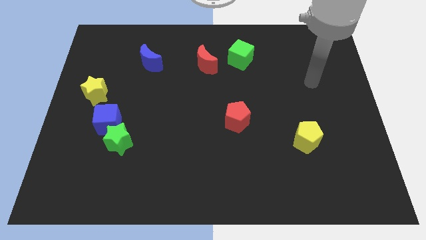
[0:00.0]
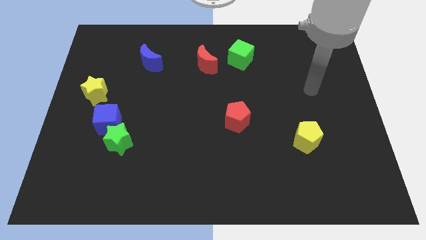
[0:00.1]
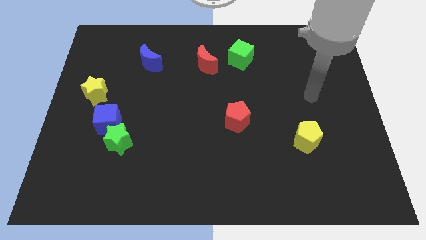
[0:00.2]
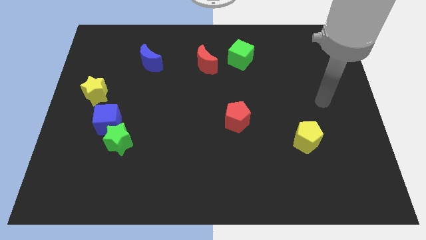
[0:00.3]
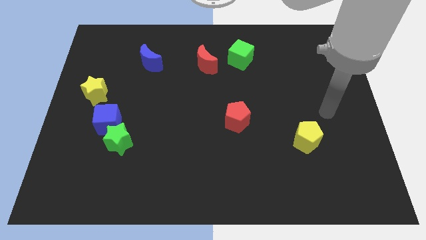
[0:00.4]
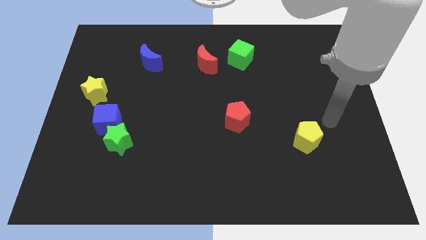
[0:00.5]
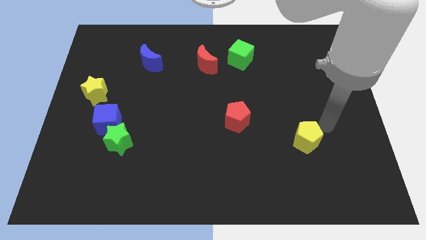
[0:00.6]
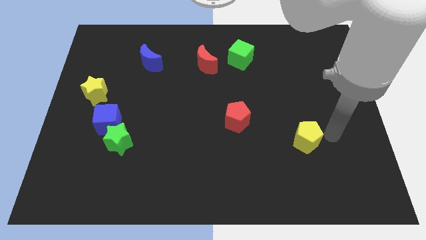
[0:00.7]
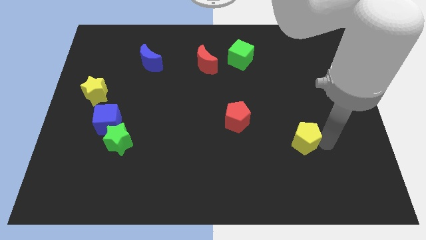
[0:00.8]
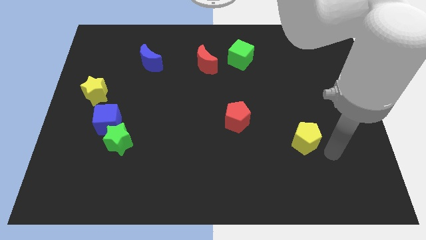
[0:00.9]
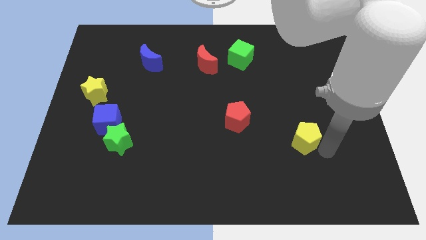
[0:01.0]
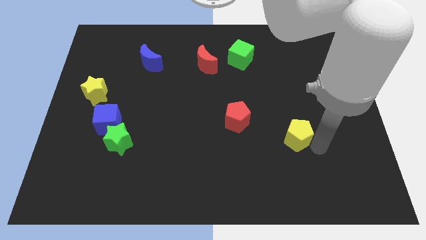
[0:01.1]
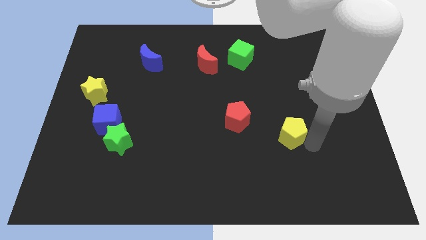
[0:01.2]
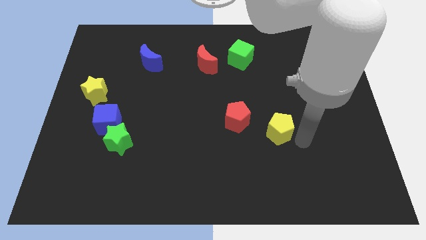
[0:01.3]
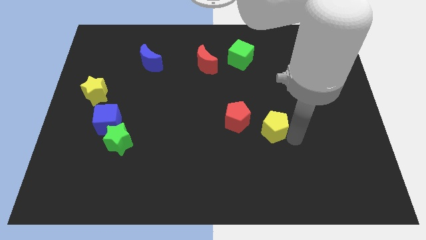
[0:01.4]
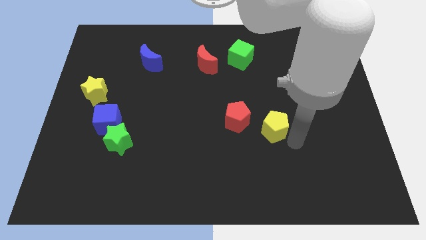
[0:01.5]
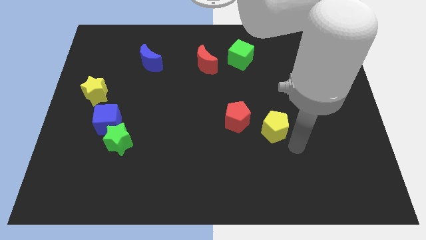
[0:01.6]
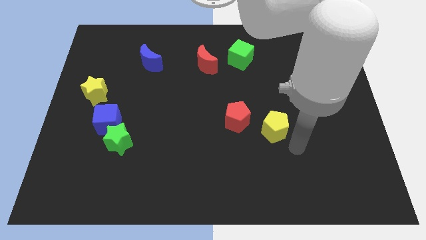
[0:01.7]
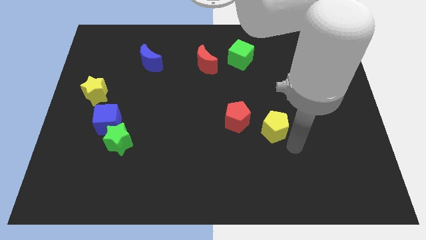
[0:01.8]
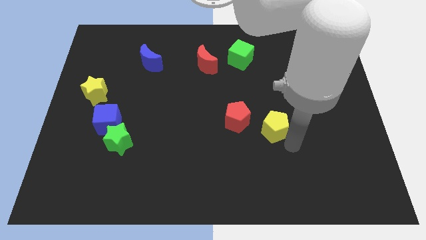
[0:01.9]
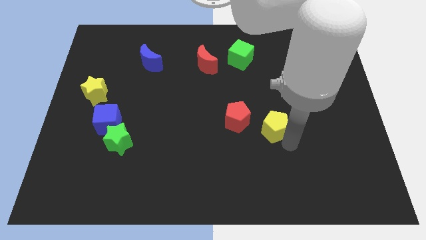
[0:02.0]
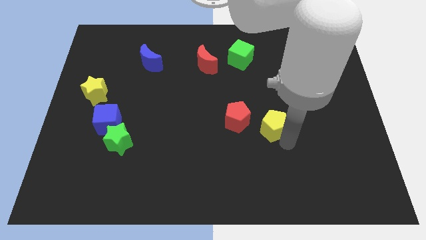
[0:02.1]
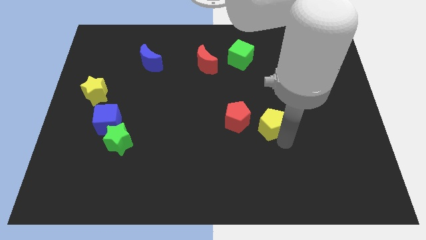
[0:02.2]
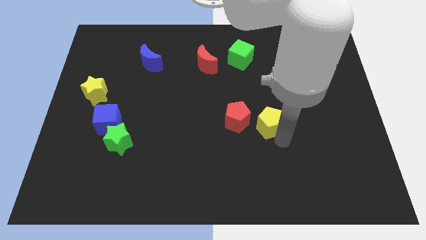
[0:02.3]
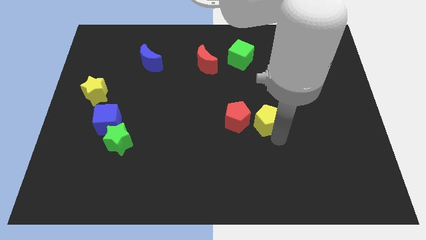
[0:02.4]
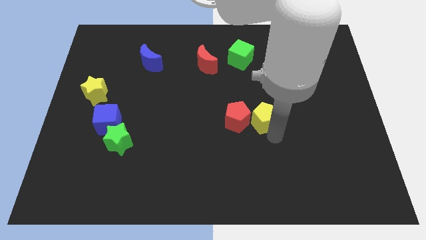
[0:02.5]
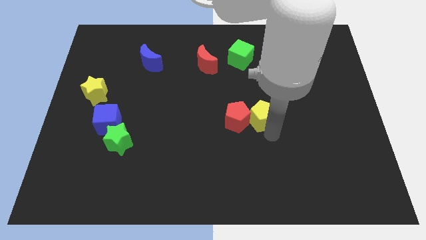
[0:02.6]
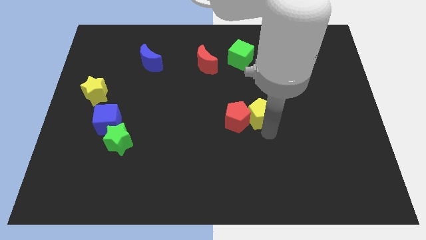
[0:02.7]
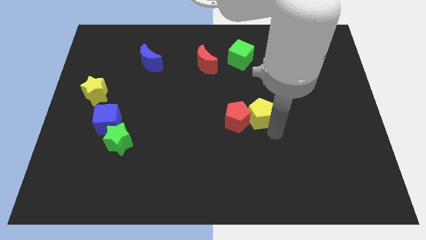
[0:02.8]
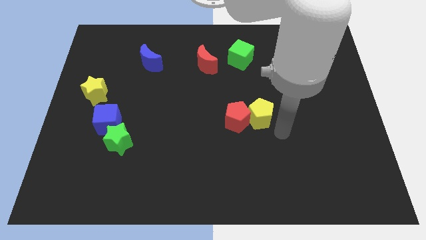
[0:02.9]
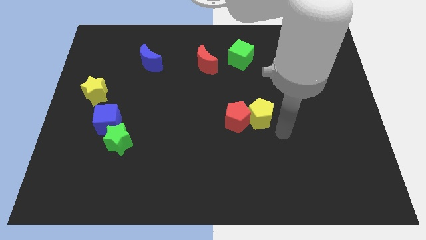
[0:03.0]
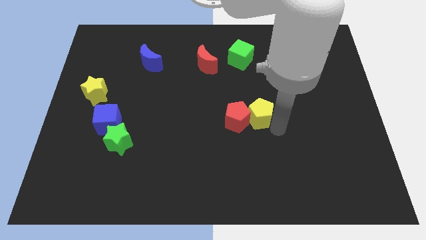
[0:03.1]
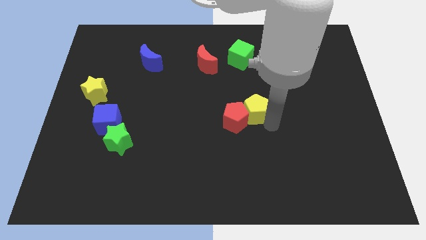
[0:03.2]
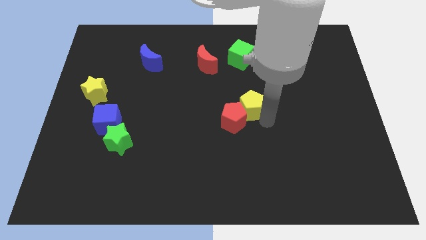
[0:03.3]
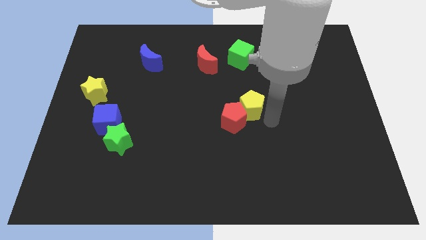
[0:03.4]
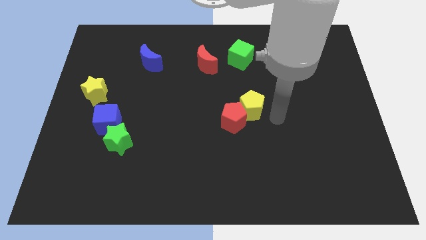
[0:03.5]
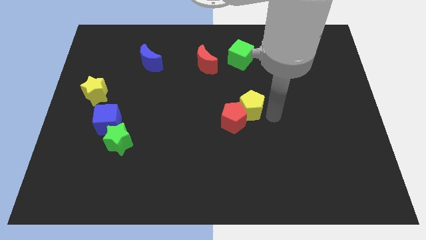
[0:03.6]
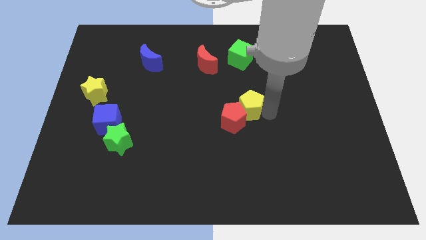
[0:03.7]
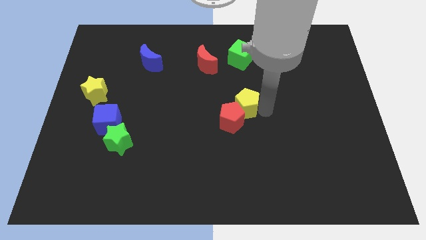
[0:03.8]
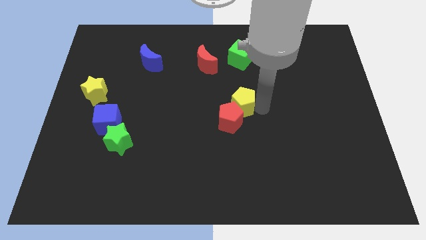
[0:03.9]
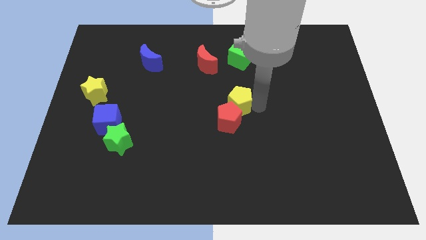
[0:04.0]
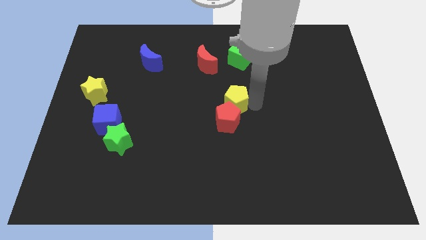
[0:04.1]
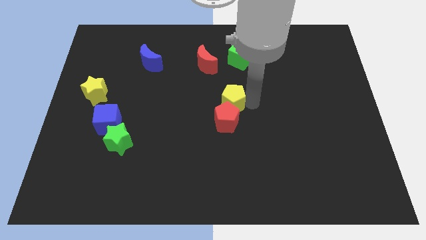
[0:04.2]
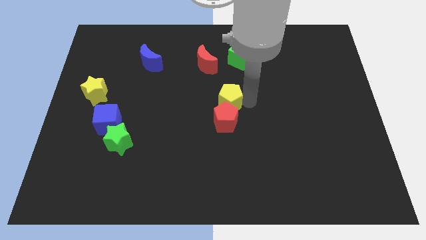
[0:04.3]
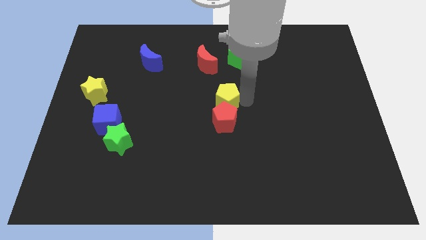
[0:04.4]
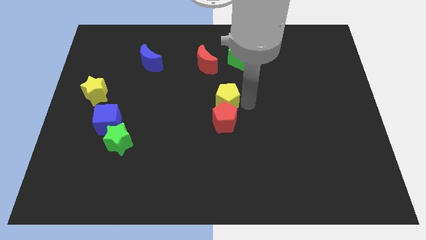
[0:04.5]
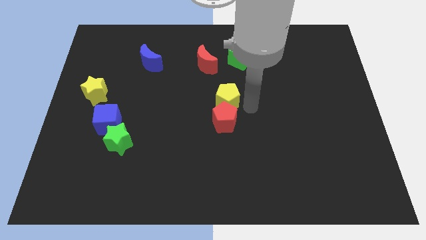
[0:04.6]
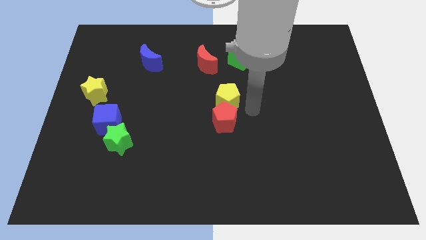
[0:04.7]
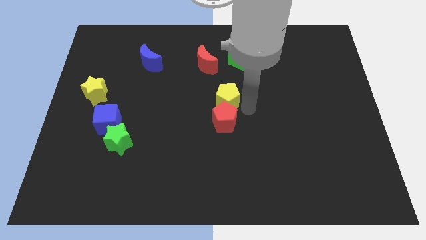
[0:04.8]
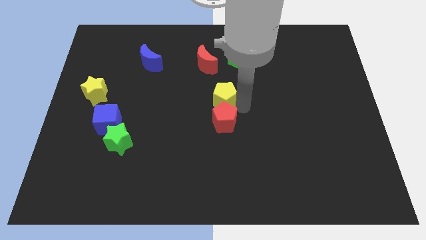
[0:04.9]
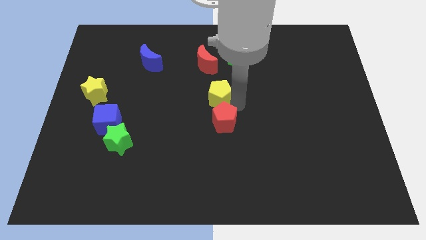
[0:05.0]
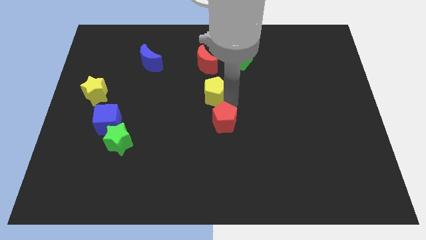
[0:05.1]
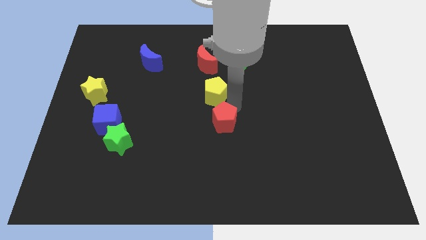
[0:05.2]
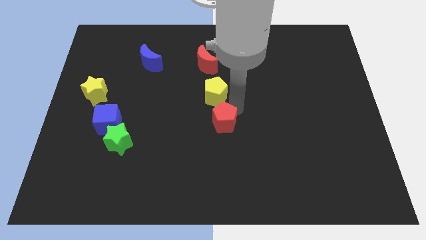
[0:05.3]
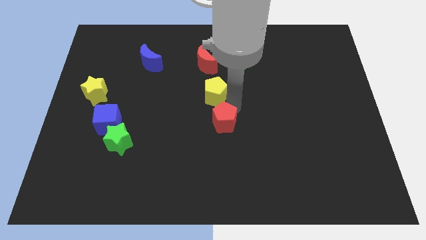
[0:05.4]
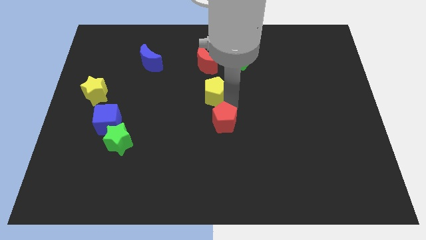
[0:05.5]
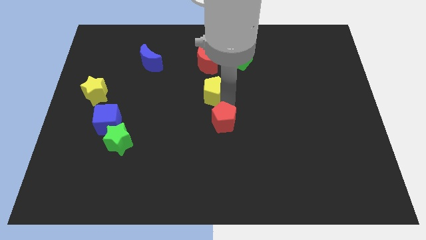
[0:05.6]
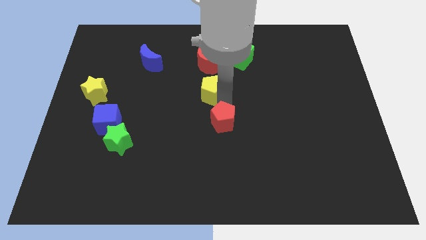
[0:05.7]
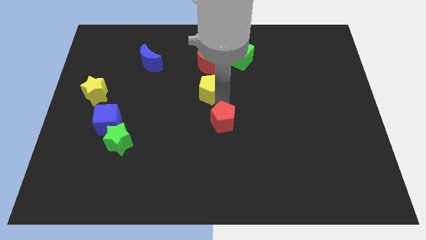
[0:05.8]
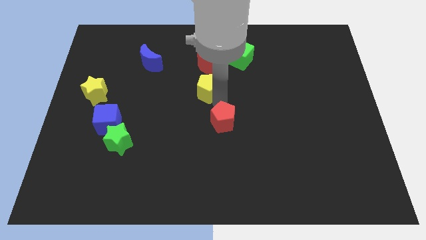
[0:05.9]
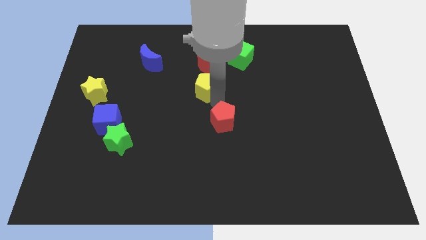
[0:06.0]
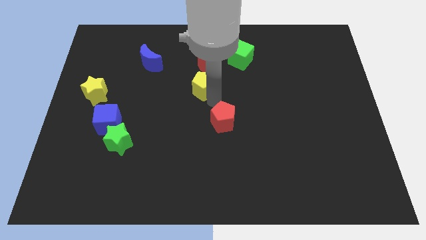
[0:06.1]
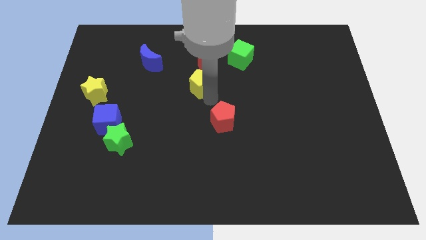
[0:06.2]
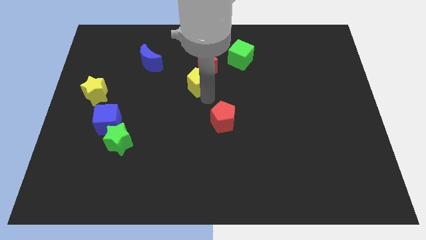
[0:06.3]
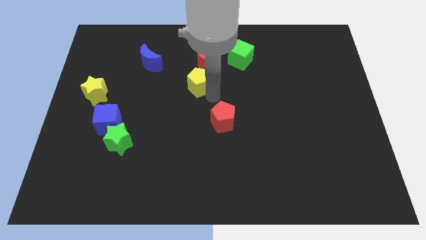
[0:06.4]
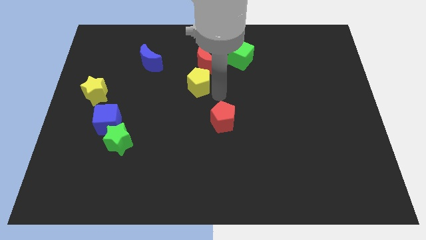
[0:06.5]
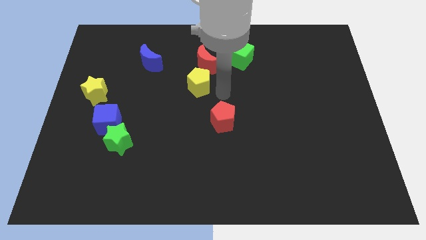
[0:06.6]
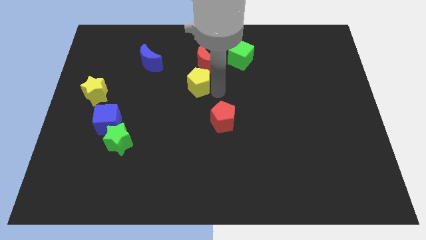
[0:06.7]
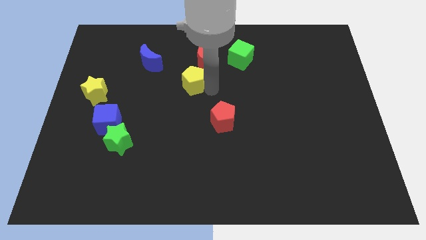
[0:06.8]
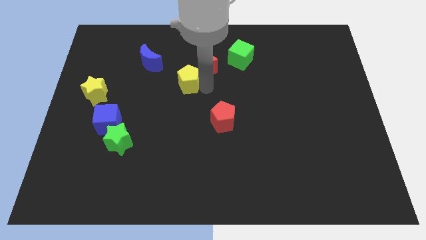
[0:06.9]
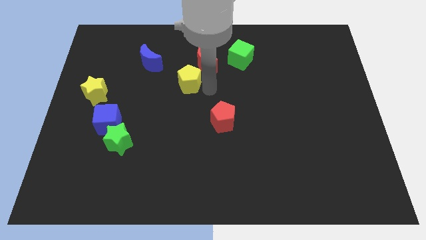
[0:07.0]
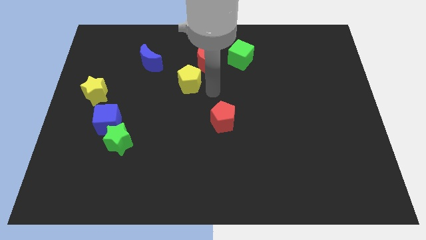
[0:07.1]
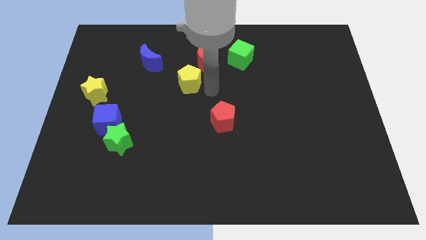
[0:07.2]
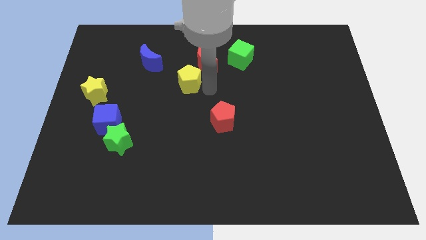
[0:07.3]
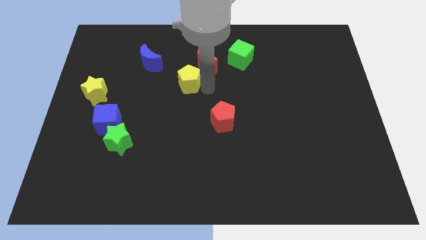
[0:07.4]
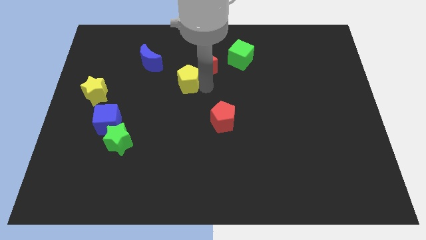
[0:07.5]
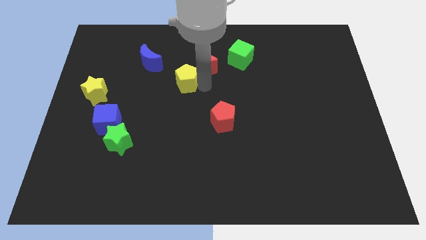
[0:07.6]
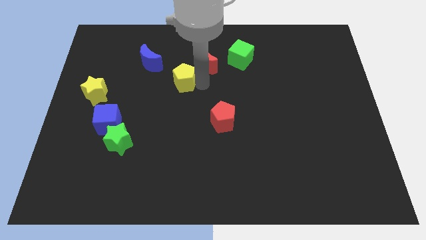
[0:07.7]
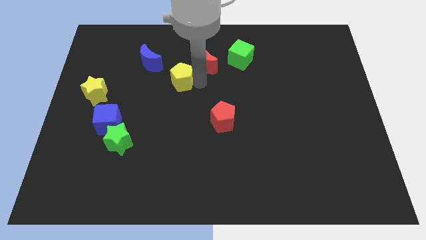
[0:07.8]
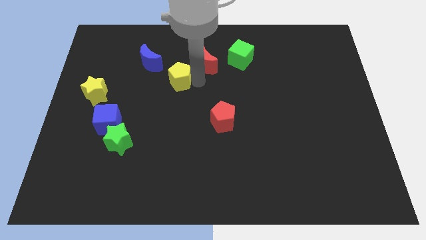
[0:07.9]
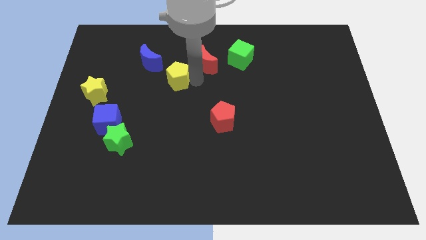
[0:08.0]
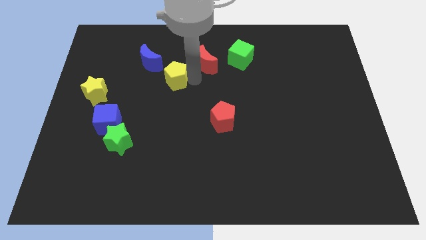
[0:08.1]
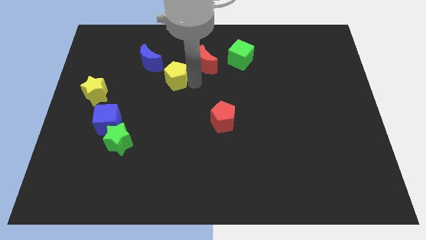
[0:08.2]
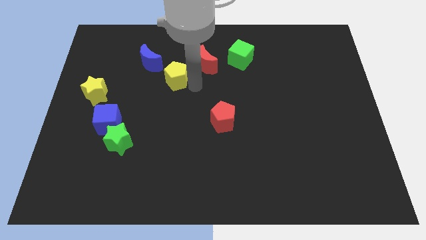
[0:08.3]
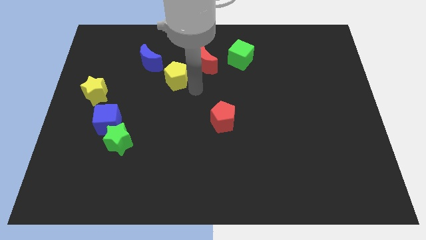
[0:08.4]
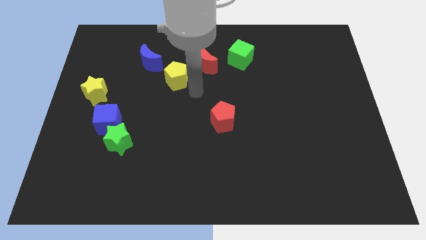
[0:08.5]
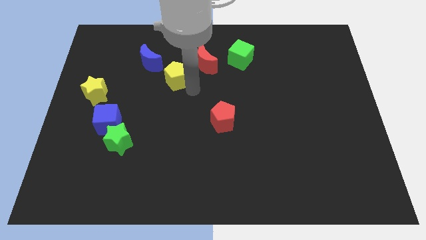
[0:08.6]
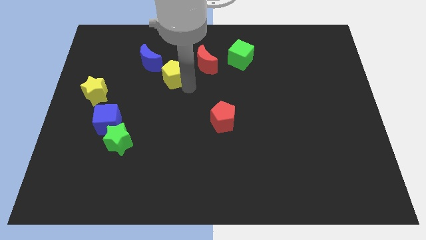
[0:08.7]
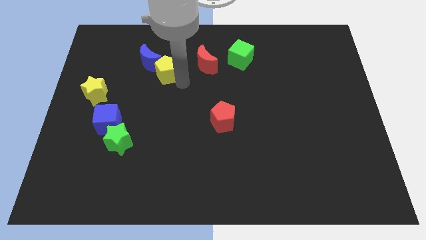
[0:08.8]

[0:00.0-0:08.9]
put the yellow pentagon towards the blue moon
